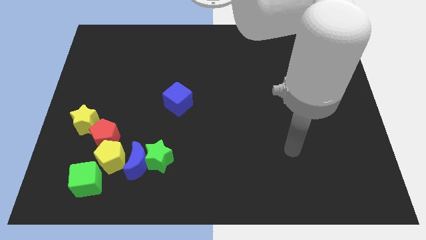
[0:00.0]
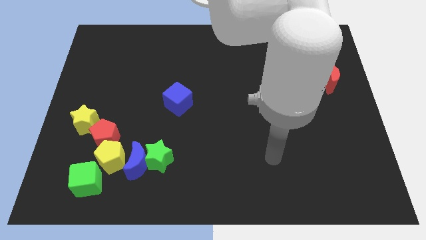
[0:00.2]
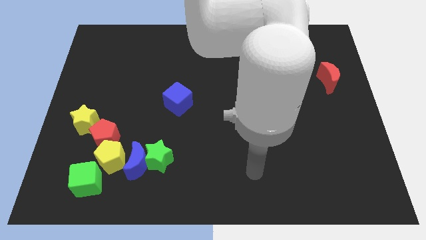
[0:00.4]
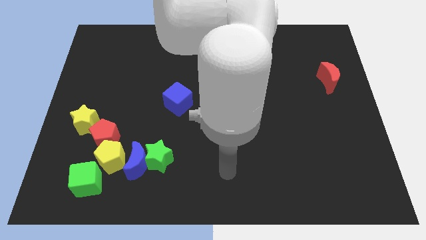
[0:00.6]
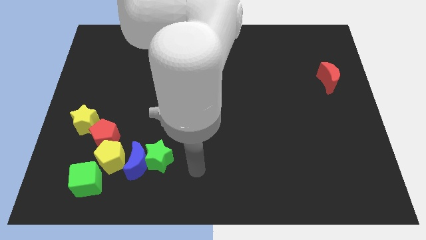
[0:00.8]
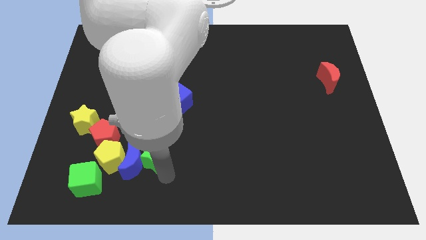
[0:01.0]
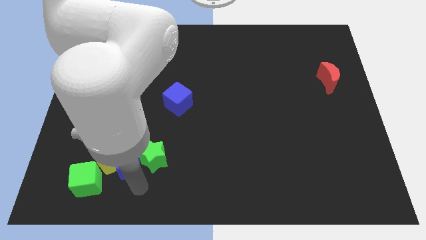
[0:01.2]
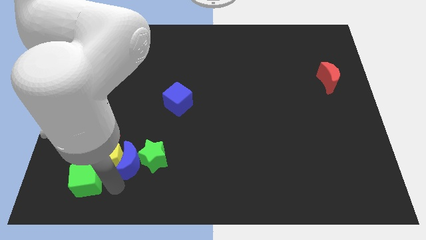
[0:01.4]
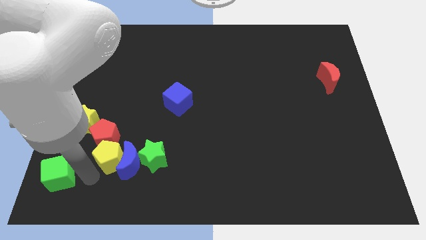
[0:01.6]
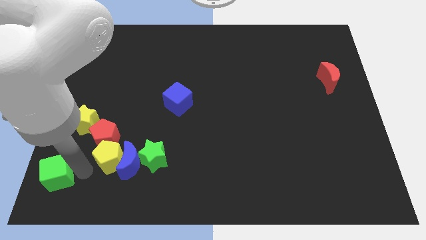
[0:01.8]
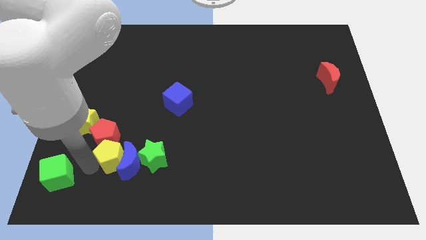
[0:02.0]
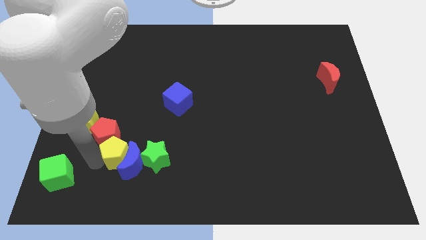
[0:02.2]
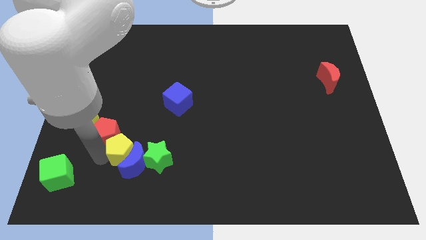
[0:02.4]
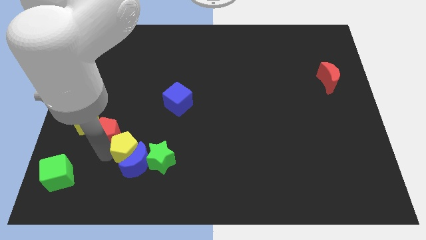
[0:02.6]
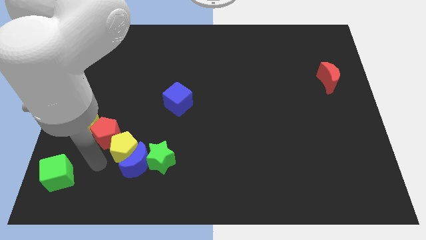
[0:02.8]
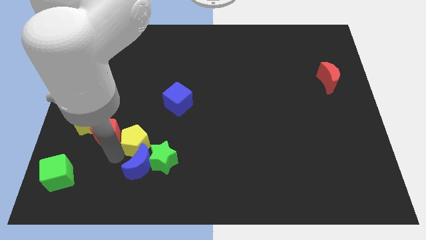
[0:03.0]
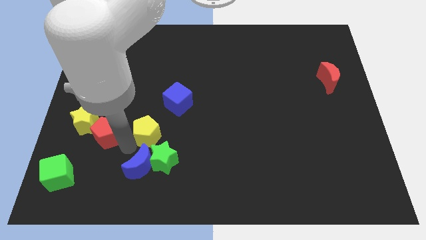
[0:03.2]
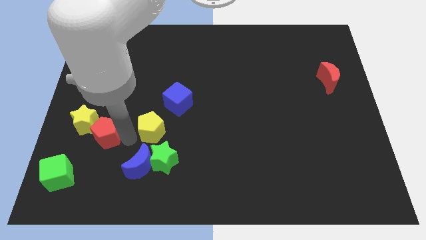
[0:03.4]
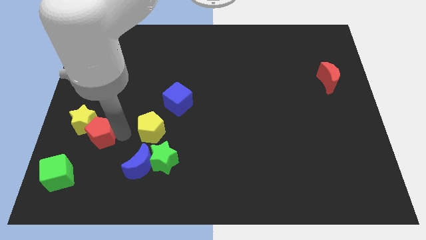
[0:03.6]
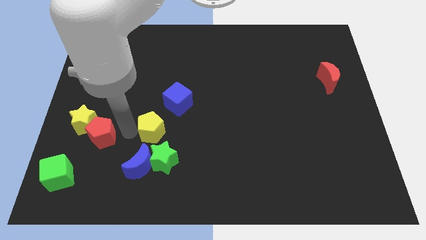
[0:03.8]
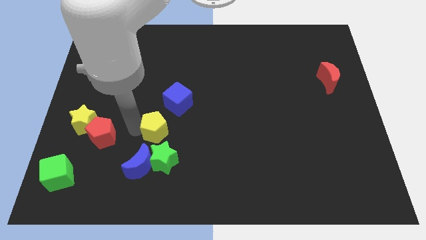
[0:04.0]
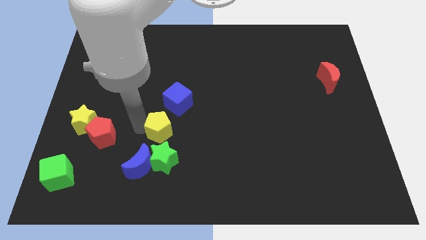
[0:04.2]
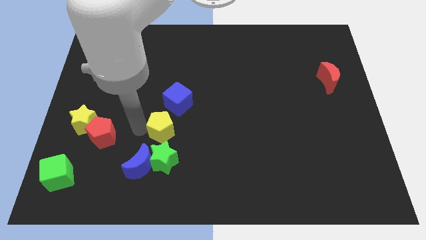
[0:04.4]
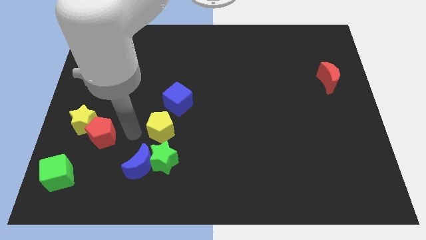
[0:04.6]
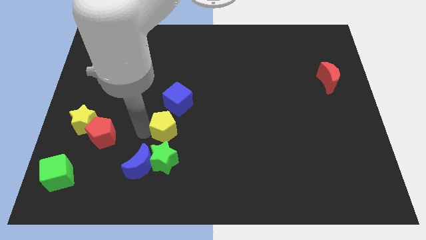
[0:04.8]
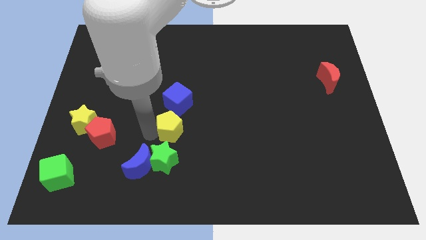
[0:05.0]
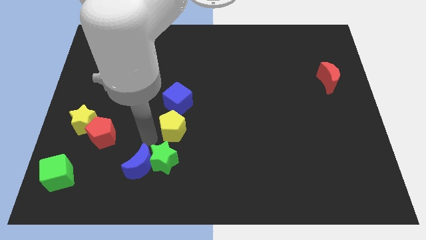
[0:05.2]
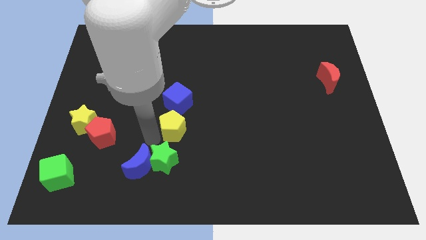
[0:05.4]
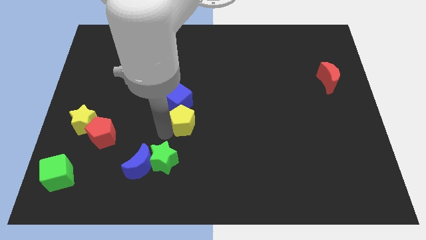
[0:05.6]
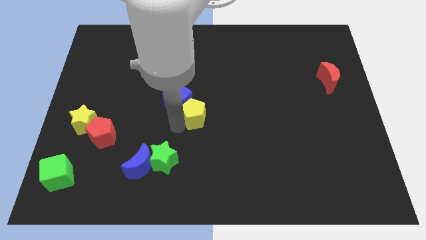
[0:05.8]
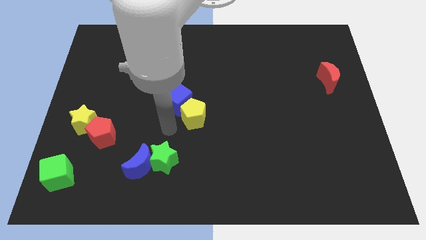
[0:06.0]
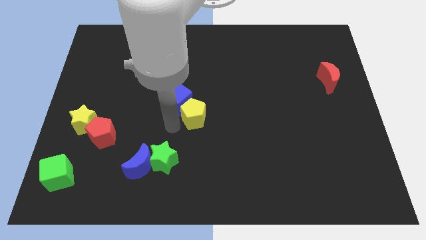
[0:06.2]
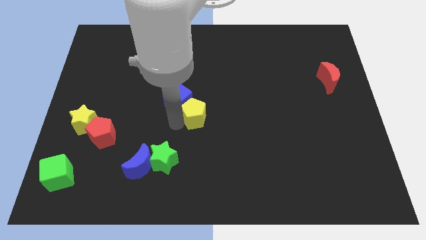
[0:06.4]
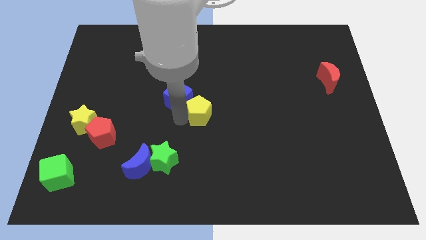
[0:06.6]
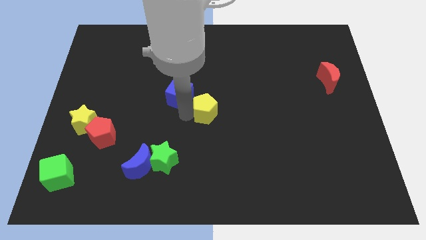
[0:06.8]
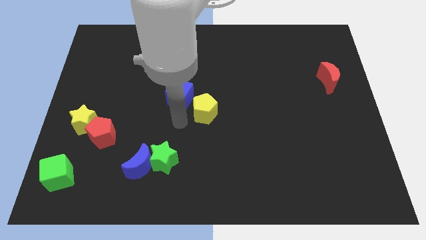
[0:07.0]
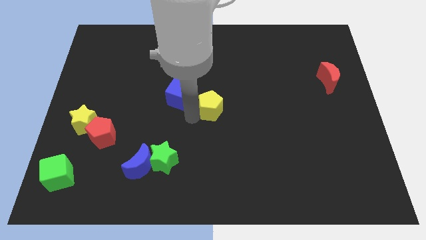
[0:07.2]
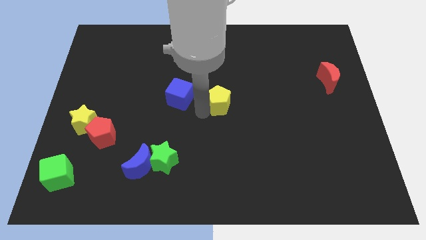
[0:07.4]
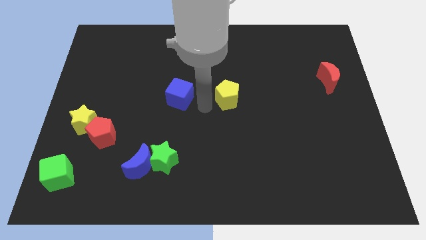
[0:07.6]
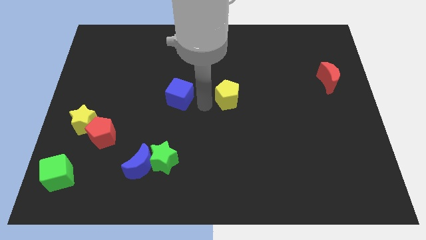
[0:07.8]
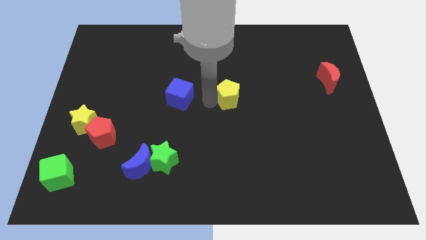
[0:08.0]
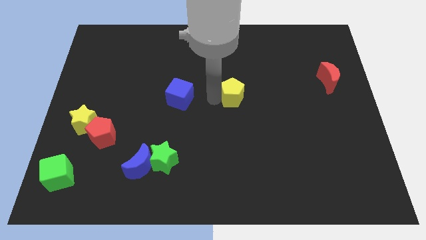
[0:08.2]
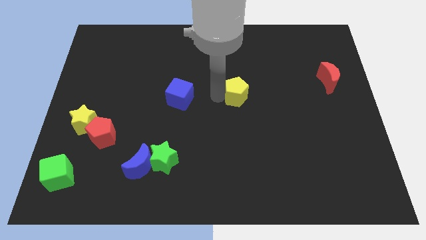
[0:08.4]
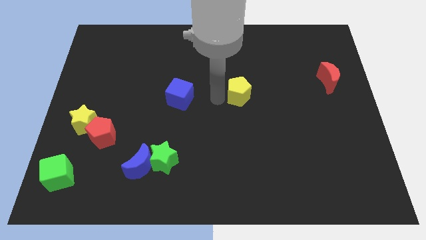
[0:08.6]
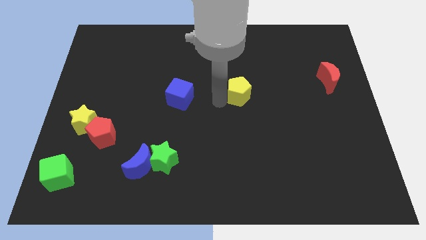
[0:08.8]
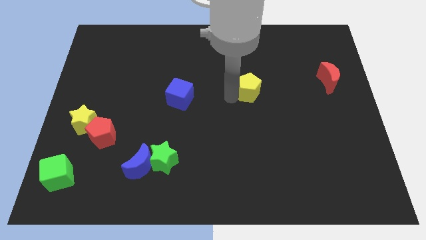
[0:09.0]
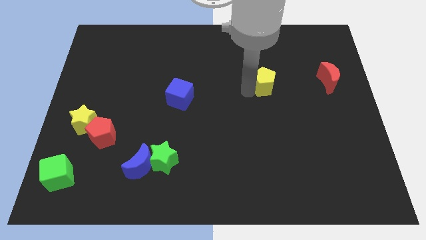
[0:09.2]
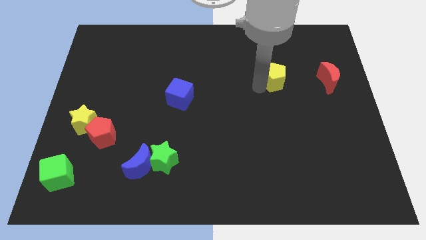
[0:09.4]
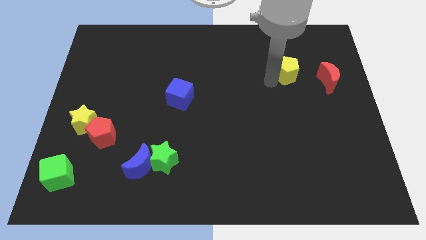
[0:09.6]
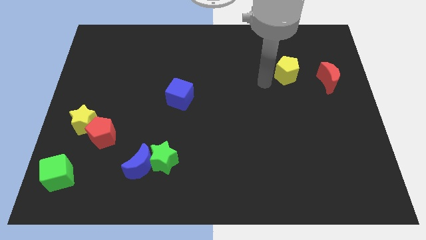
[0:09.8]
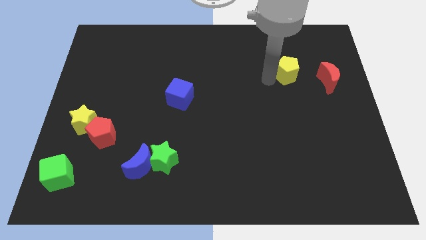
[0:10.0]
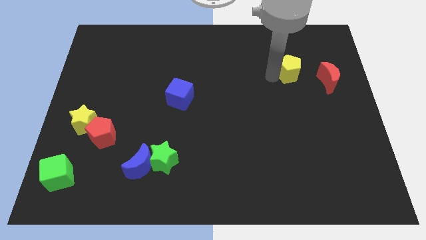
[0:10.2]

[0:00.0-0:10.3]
move the yellow pentagon to the top left of the red moon

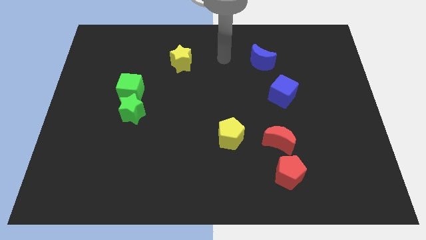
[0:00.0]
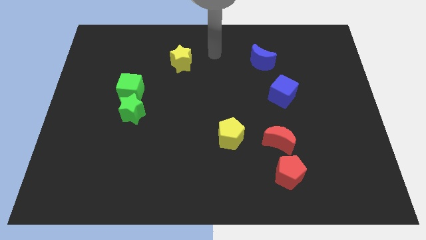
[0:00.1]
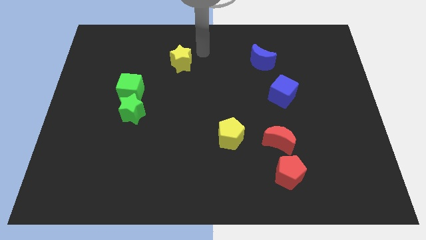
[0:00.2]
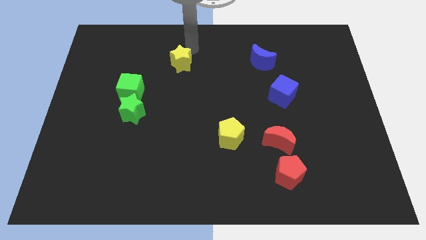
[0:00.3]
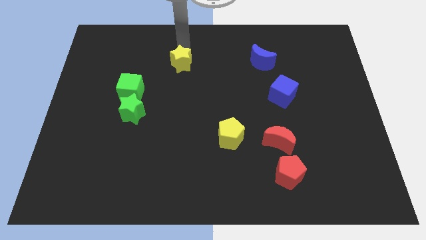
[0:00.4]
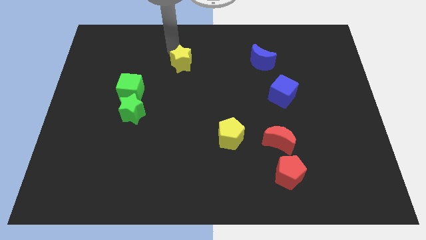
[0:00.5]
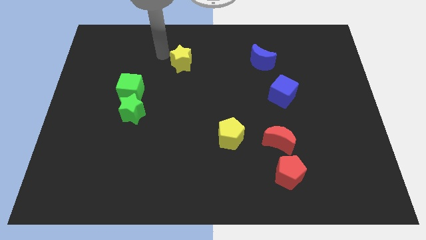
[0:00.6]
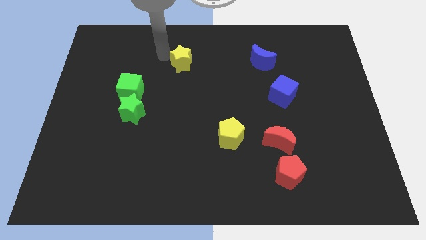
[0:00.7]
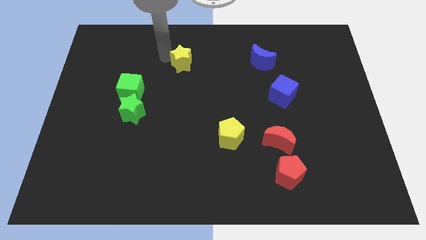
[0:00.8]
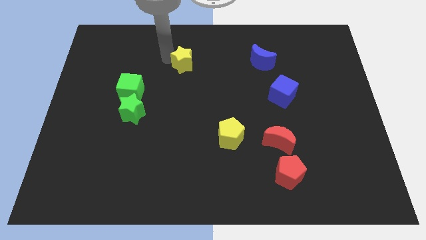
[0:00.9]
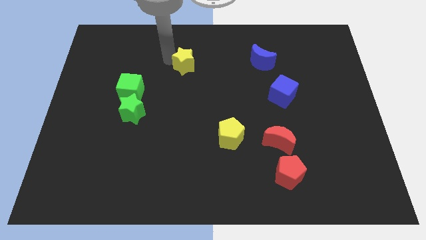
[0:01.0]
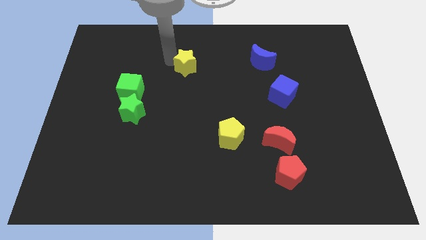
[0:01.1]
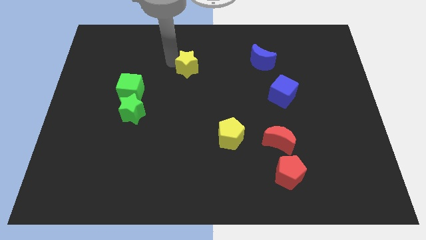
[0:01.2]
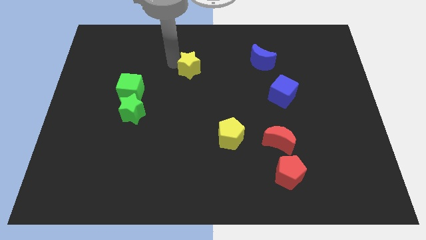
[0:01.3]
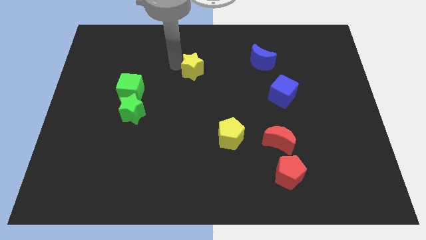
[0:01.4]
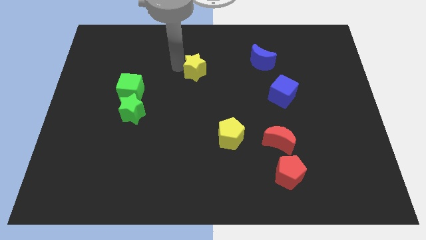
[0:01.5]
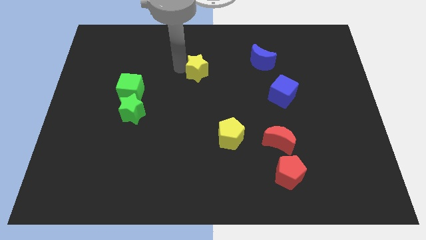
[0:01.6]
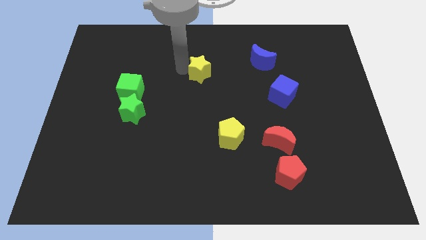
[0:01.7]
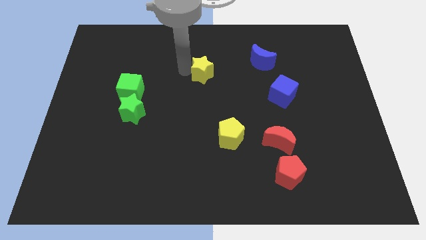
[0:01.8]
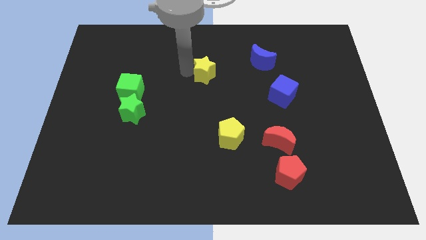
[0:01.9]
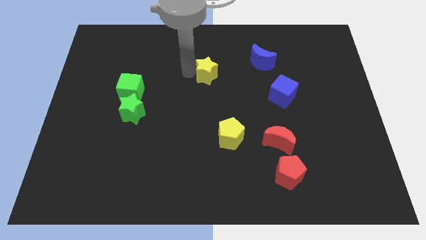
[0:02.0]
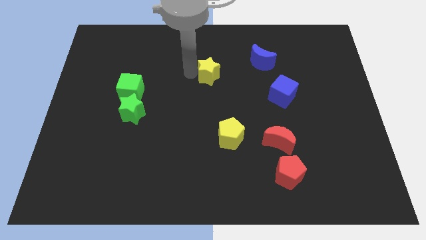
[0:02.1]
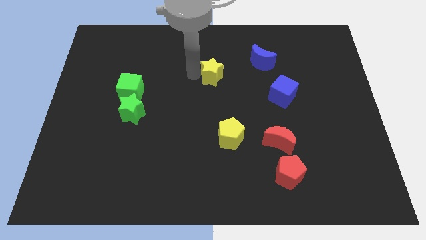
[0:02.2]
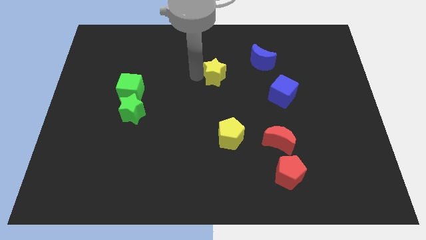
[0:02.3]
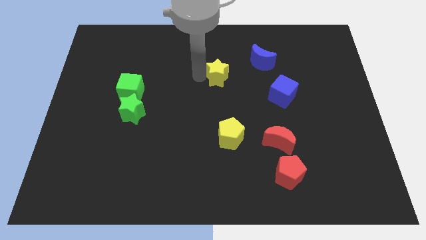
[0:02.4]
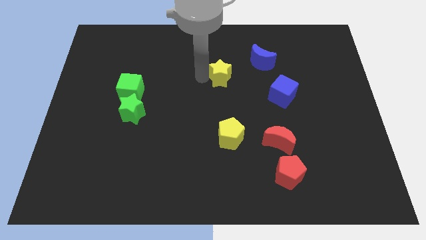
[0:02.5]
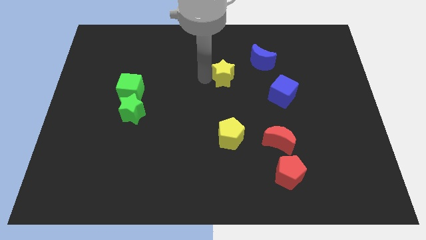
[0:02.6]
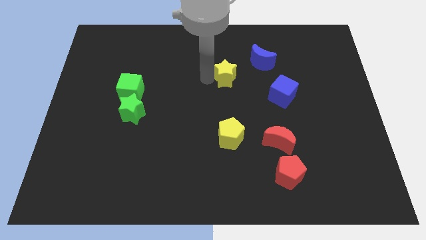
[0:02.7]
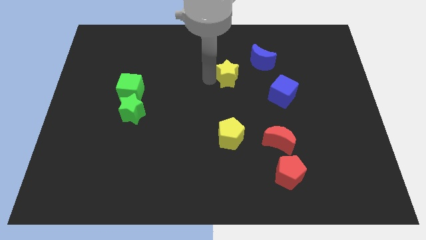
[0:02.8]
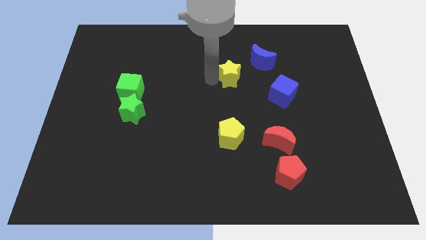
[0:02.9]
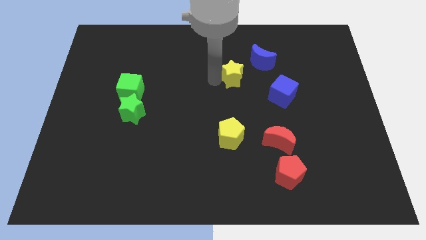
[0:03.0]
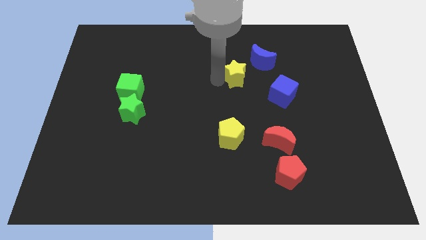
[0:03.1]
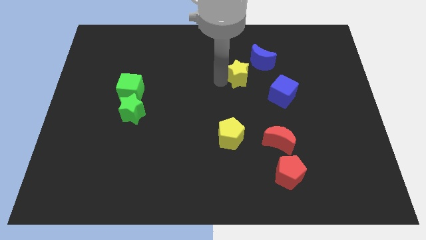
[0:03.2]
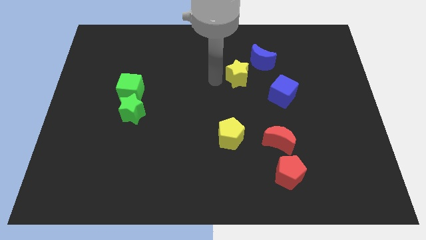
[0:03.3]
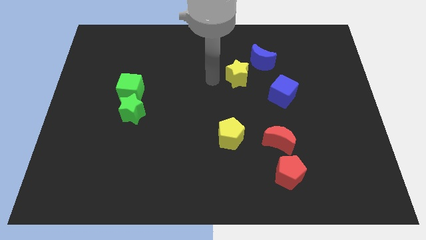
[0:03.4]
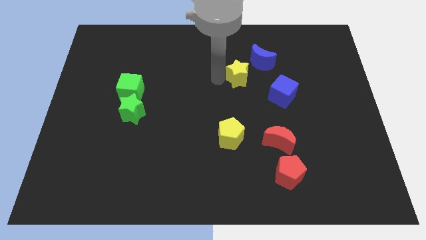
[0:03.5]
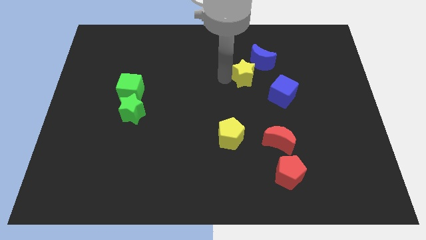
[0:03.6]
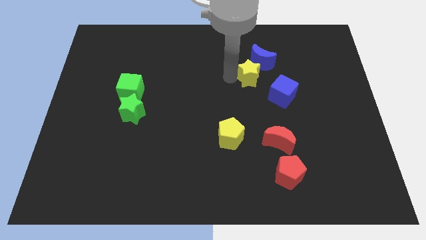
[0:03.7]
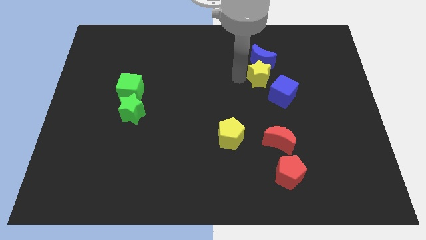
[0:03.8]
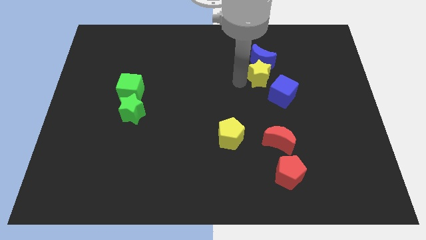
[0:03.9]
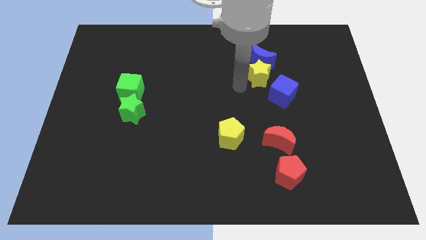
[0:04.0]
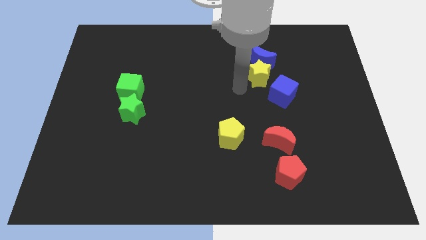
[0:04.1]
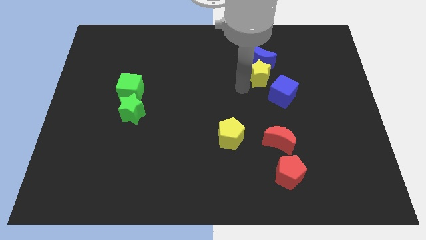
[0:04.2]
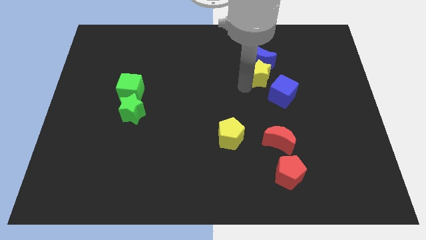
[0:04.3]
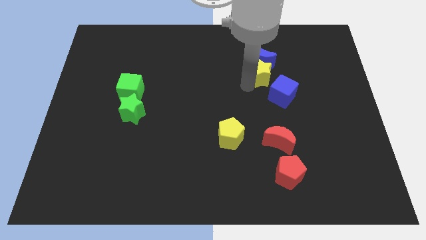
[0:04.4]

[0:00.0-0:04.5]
put the yellow star to the top of the blue cube
